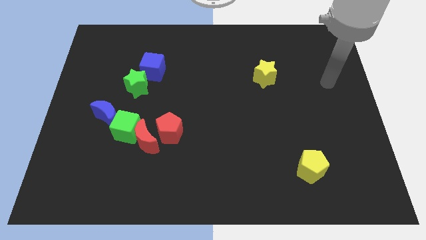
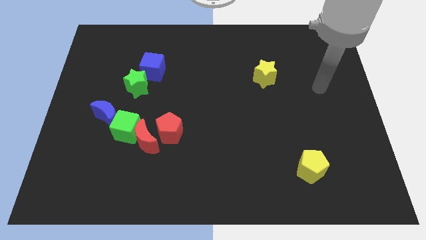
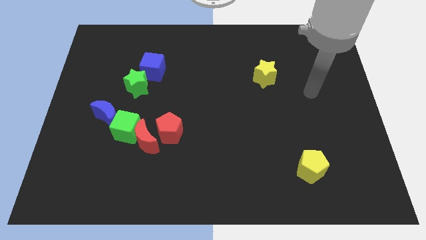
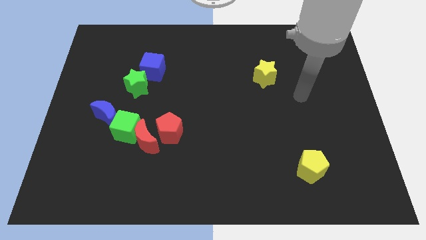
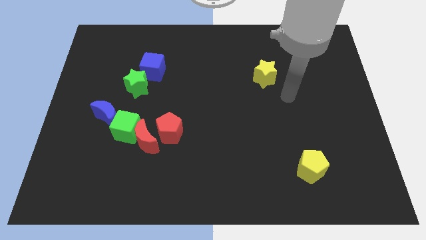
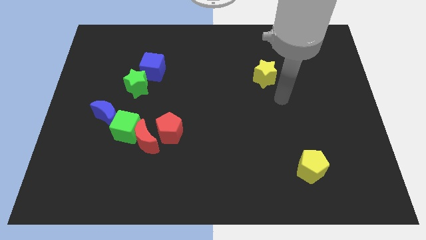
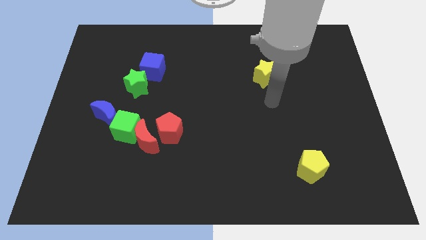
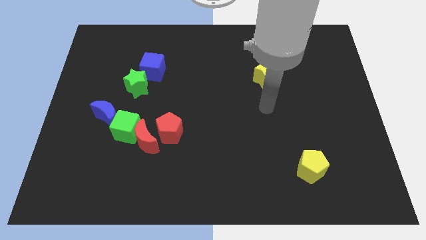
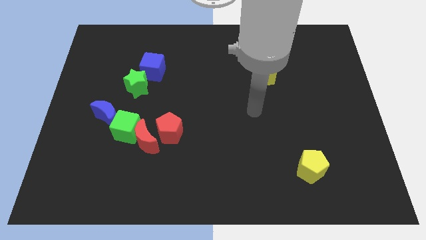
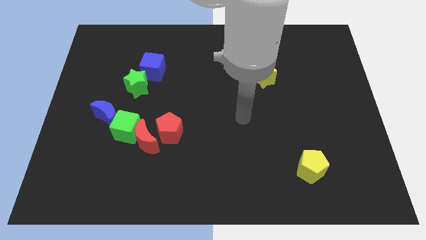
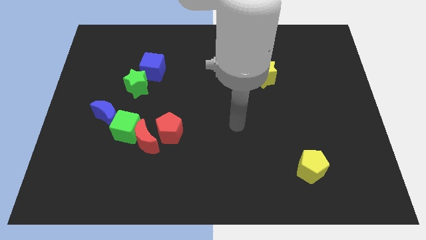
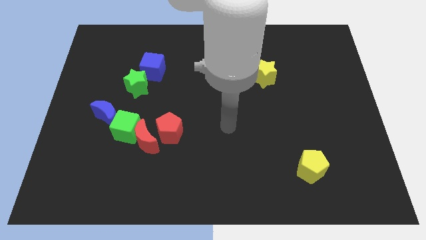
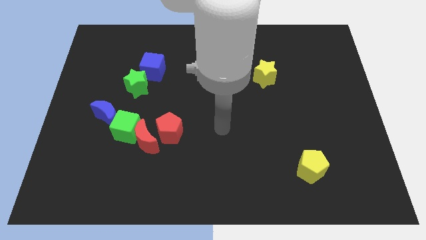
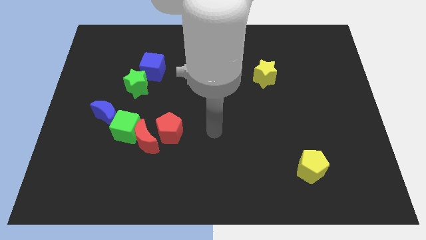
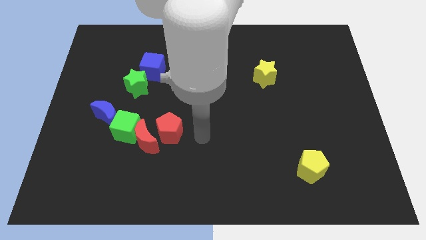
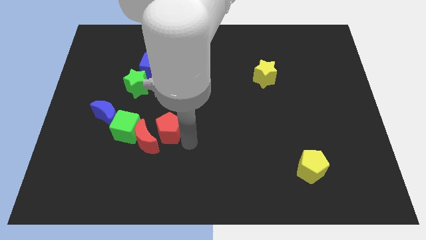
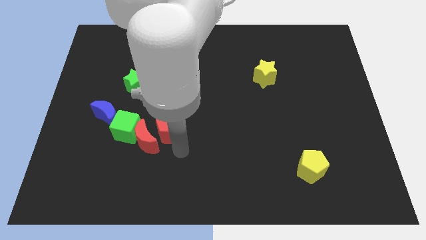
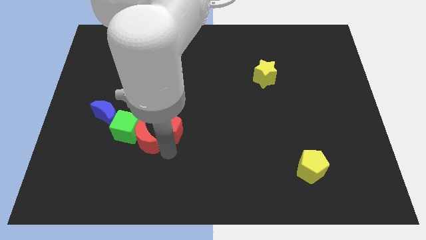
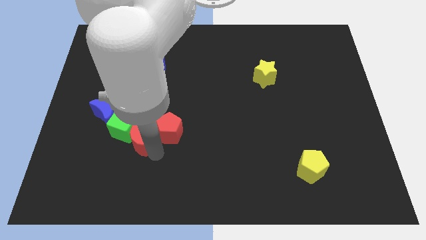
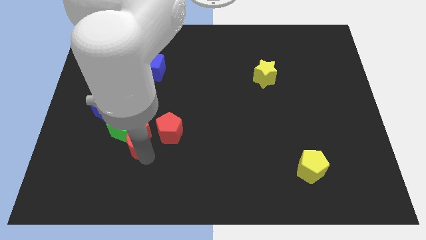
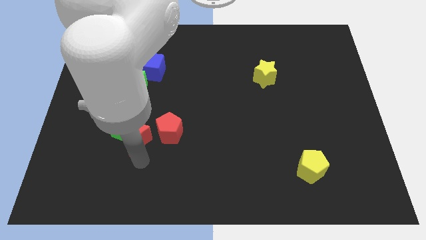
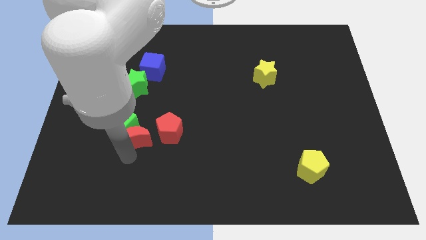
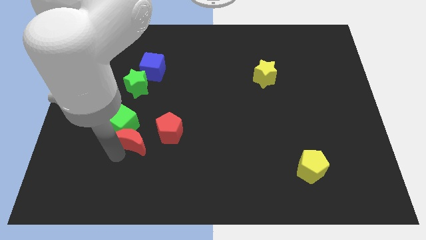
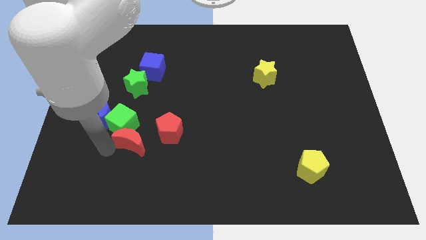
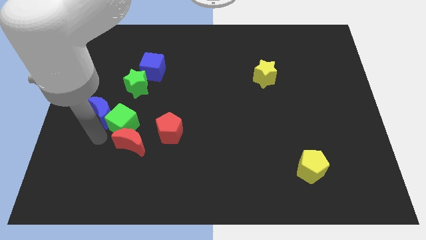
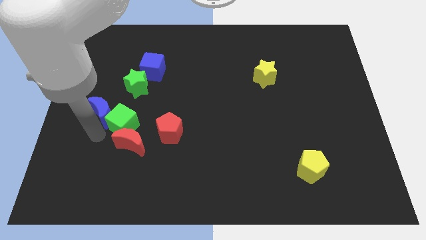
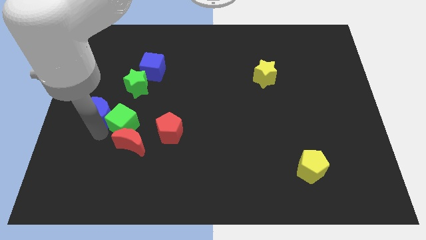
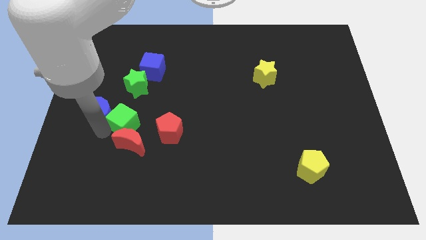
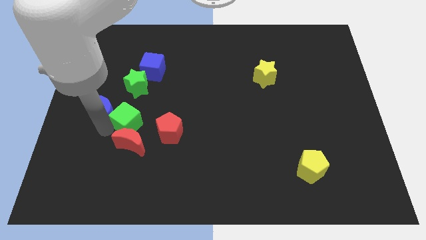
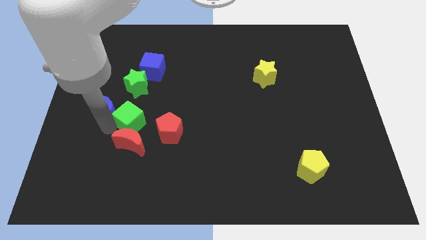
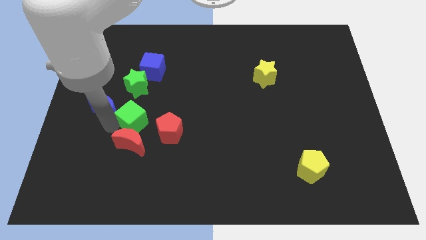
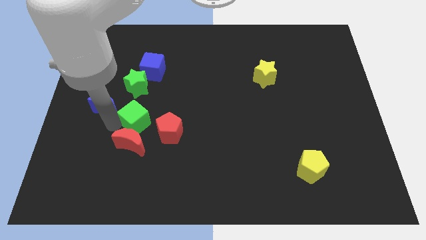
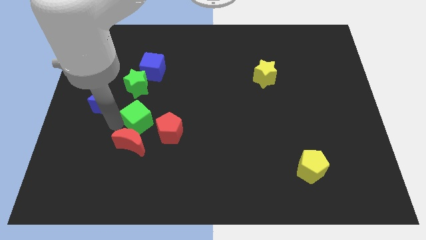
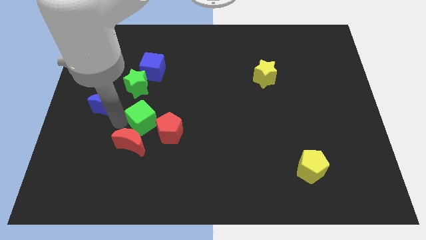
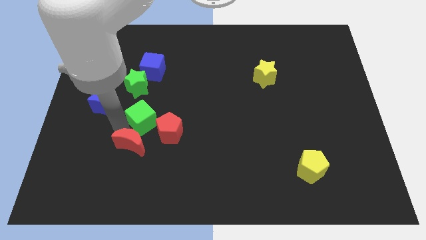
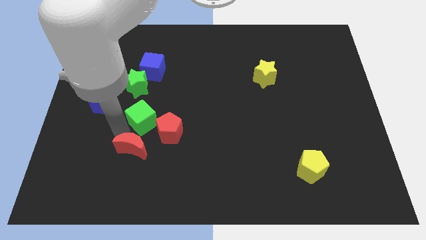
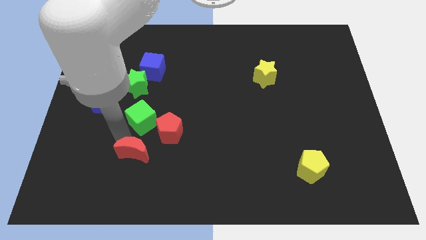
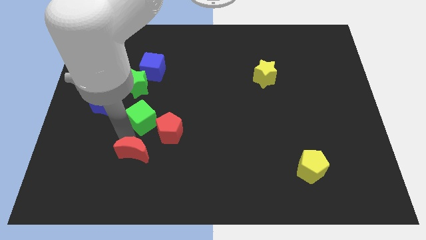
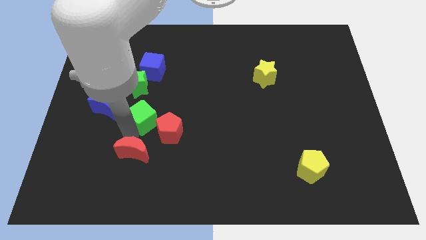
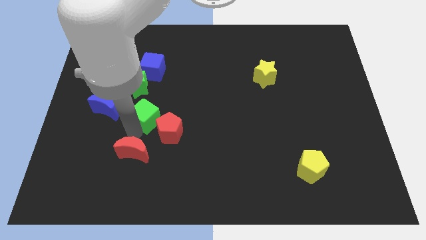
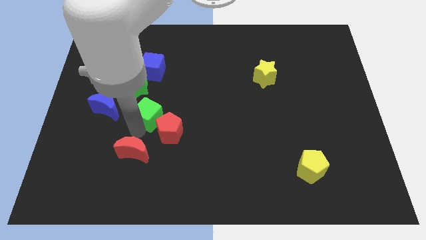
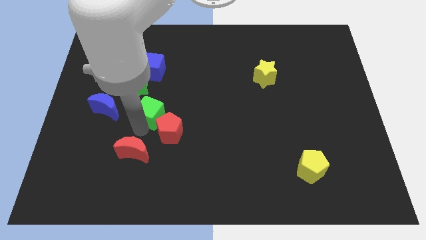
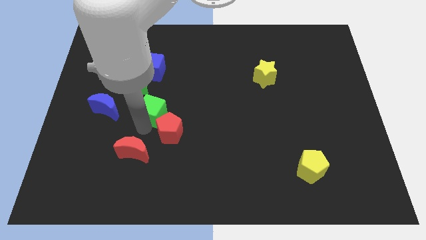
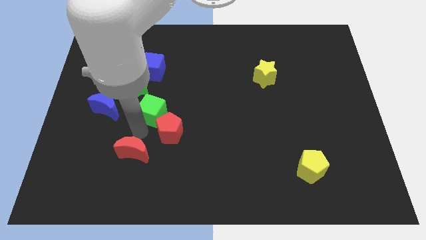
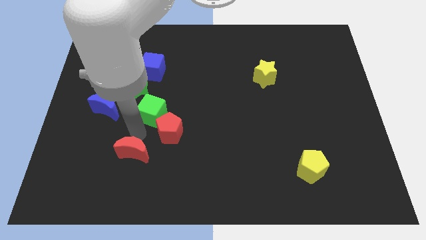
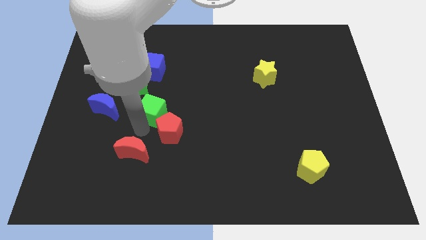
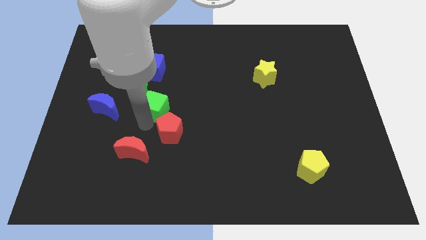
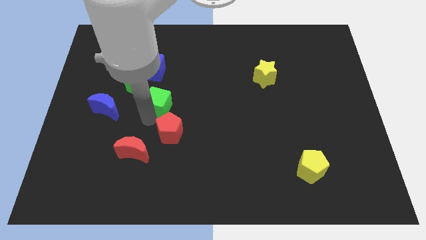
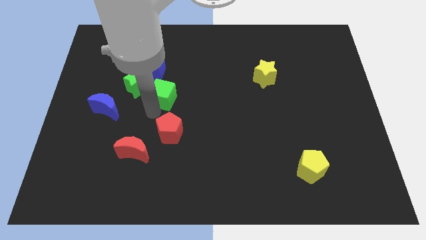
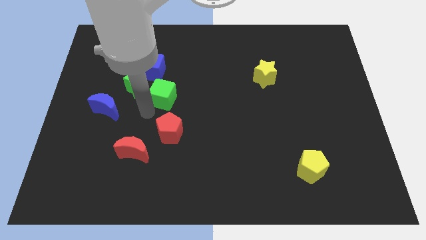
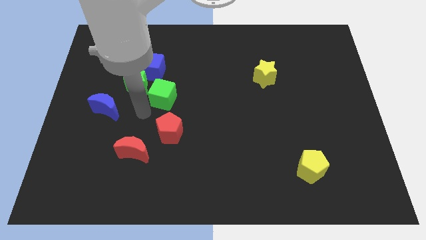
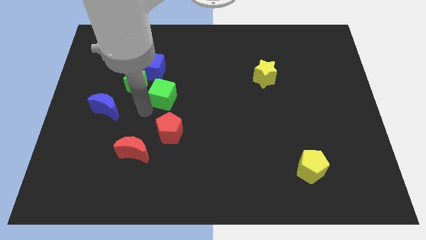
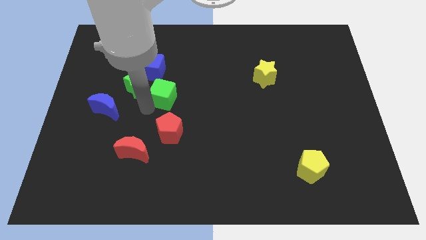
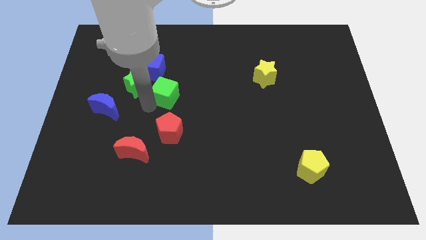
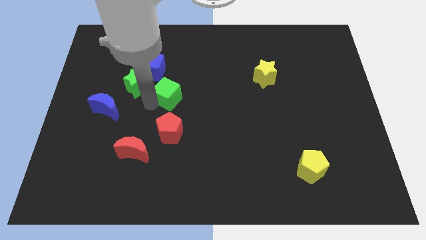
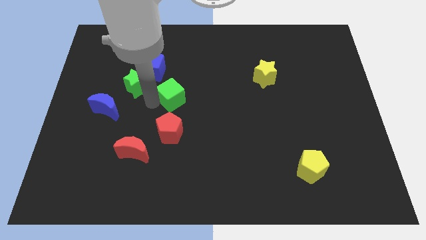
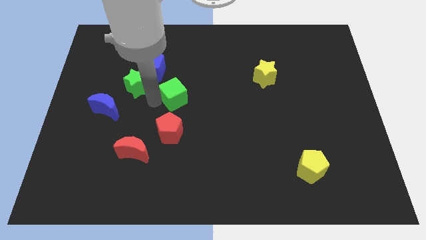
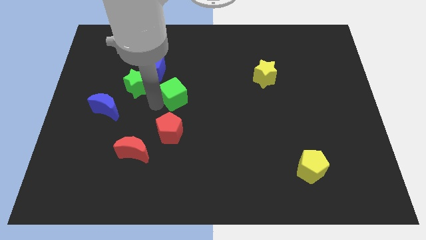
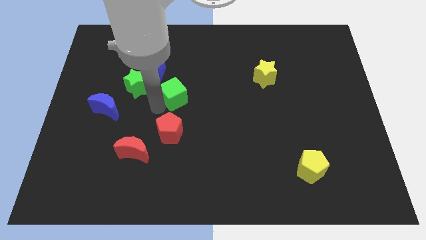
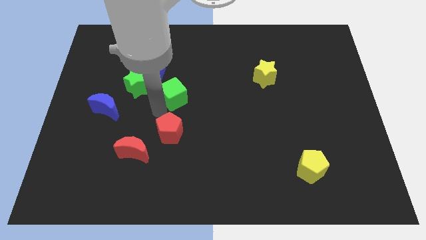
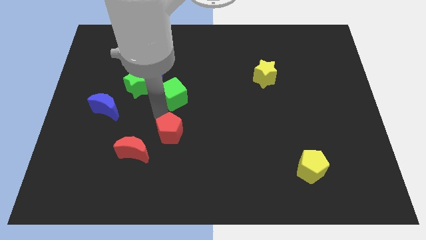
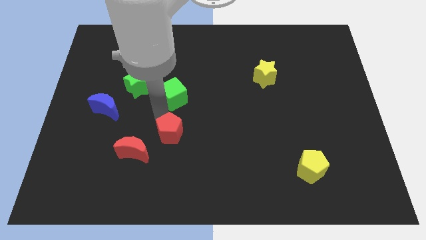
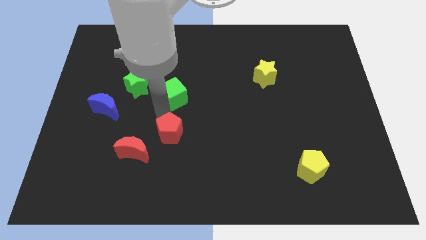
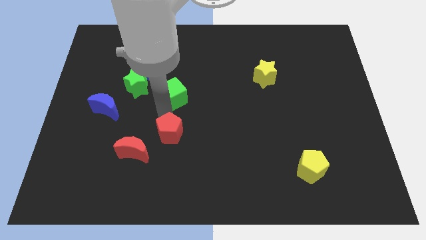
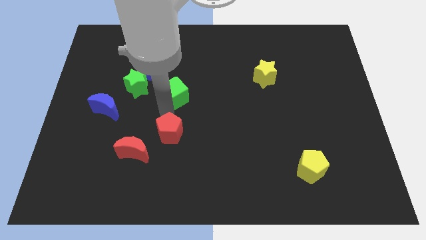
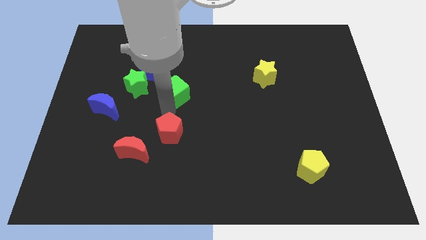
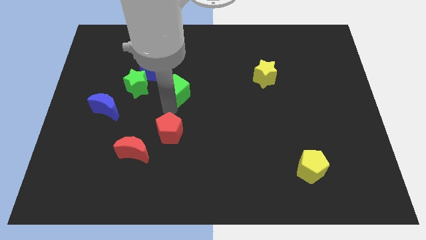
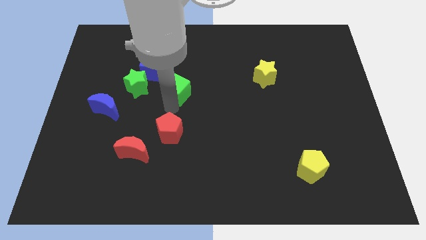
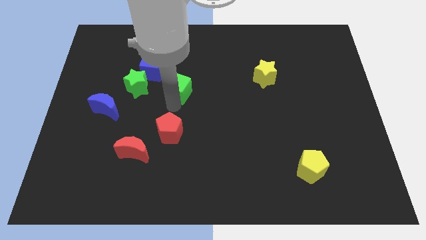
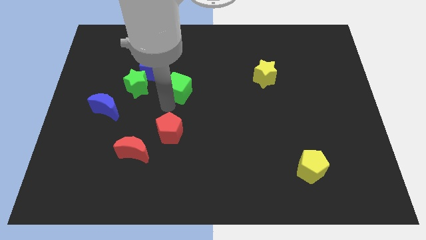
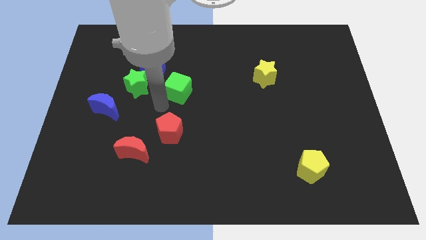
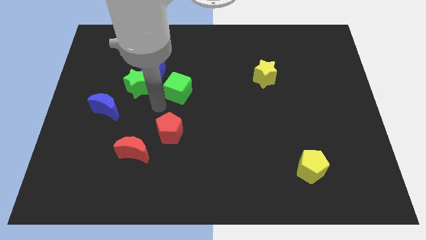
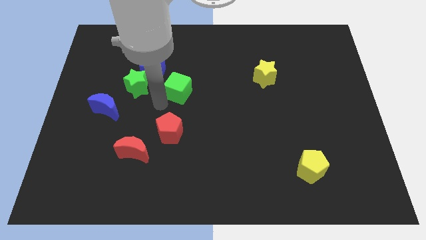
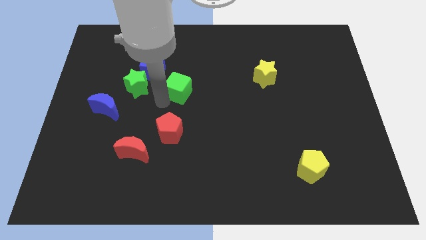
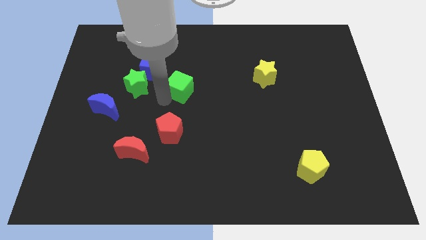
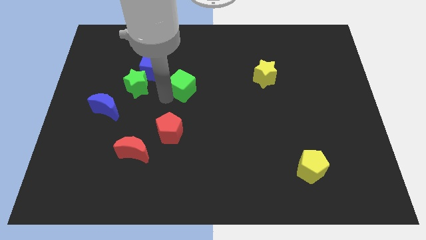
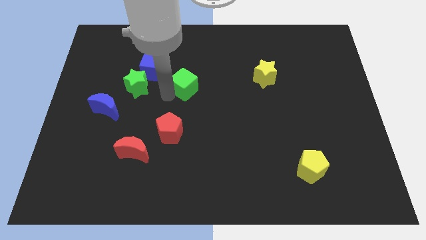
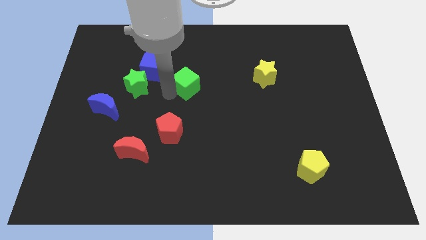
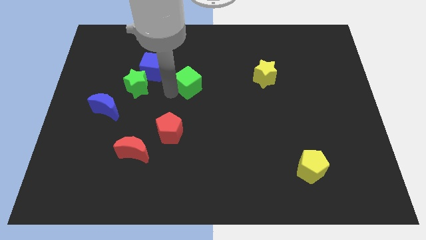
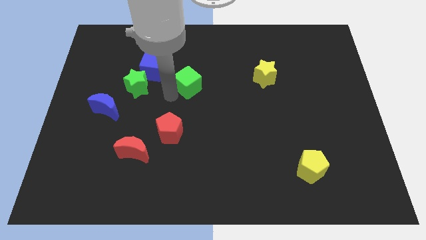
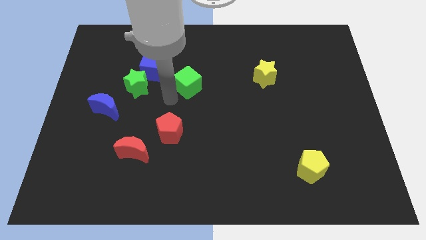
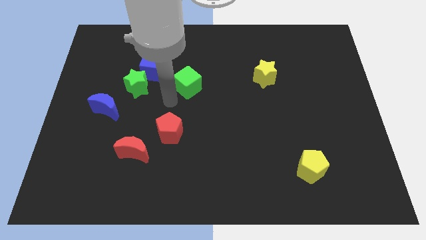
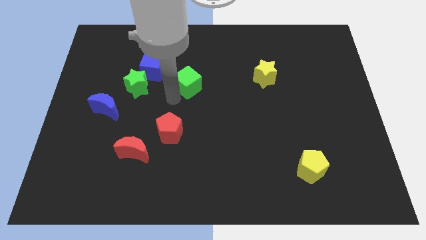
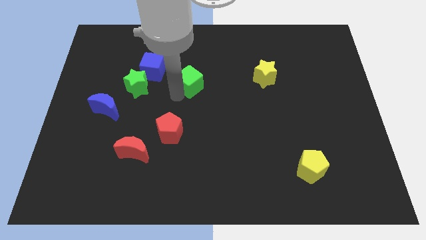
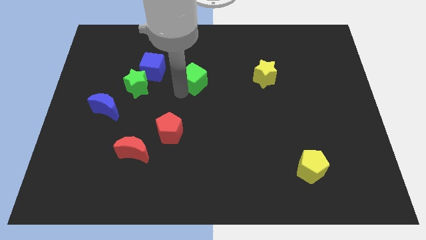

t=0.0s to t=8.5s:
move the green cube upwards and to the right

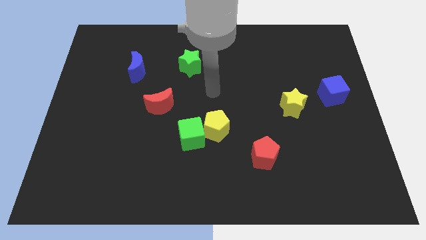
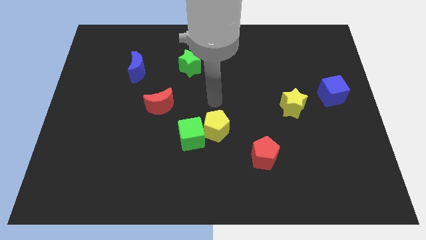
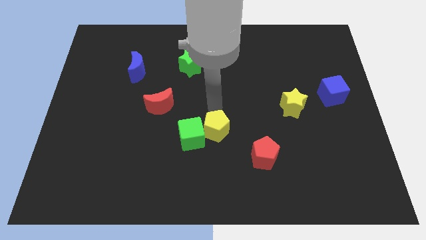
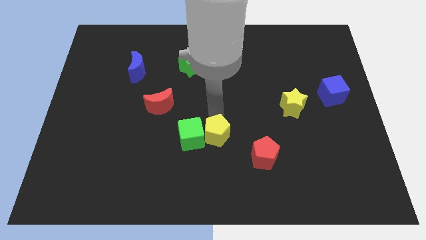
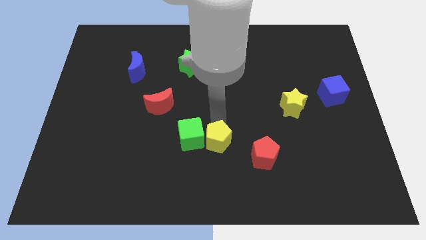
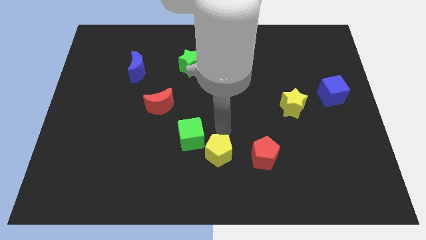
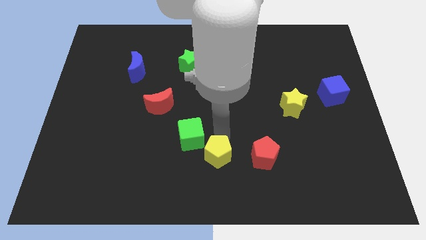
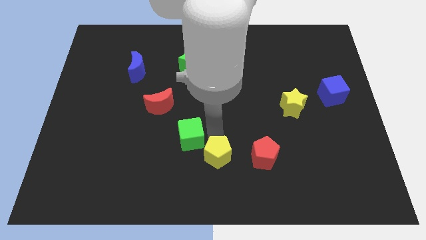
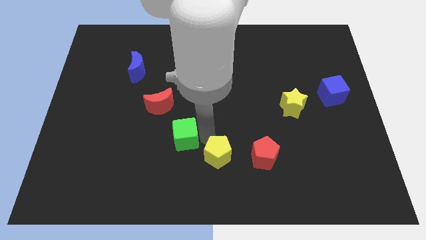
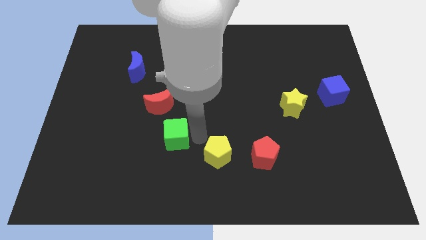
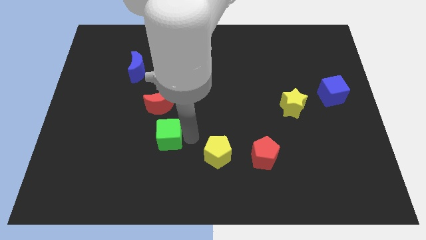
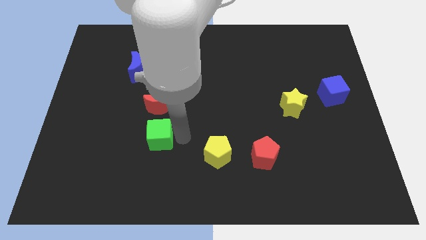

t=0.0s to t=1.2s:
slide the green cube to the left a bit
